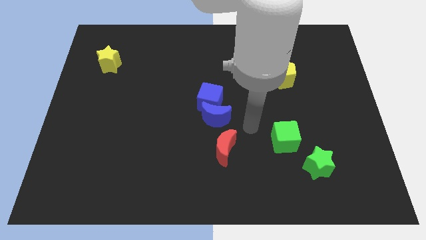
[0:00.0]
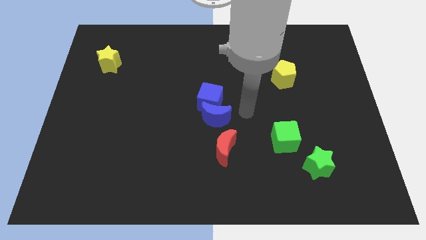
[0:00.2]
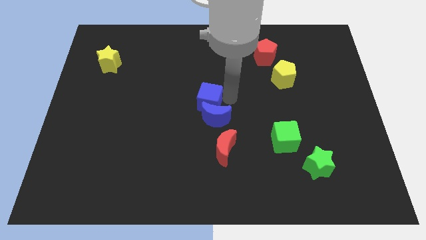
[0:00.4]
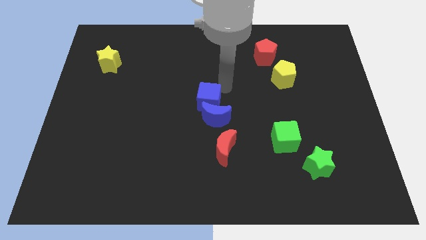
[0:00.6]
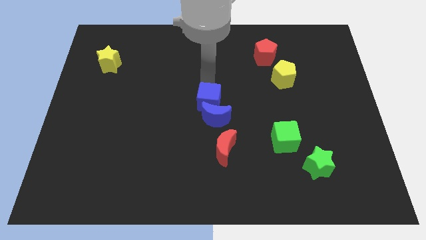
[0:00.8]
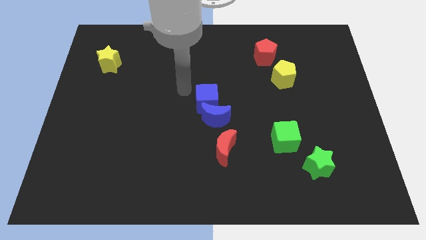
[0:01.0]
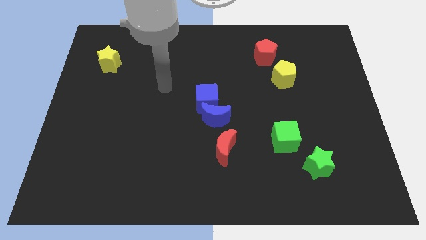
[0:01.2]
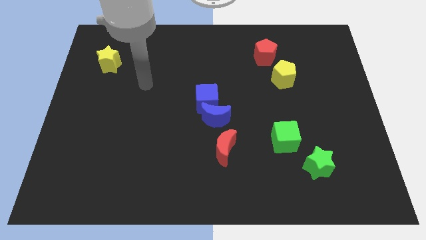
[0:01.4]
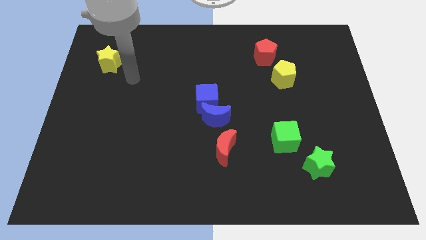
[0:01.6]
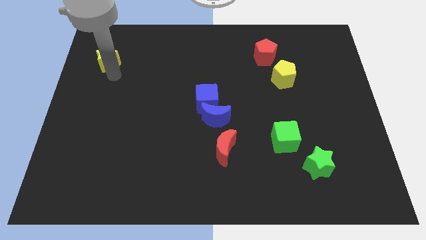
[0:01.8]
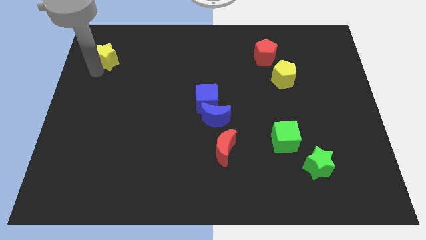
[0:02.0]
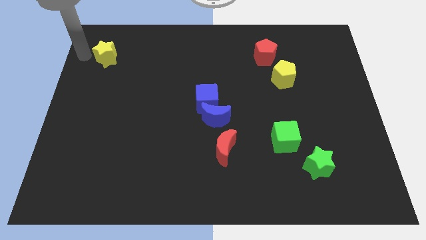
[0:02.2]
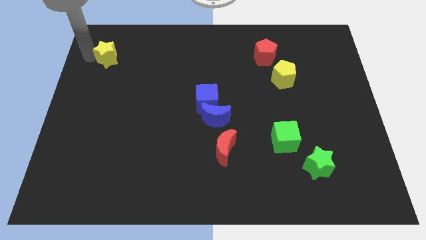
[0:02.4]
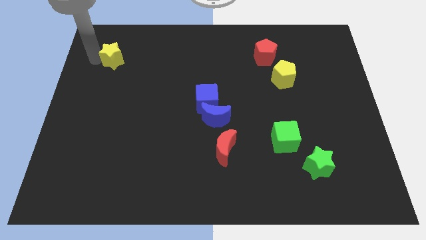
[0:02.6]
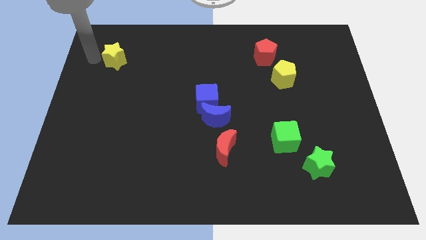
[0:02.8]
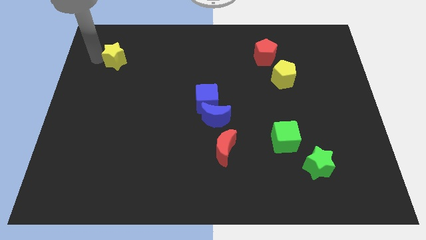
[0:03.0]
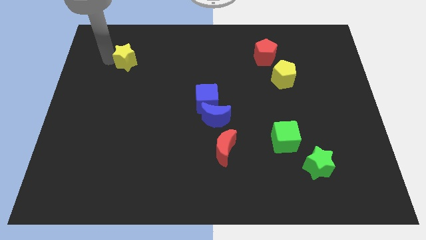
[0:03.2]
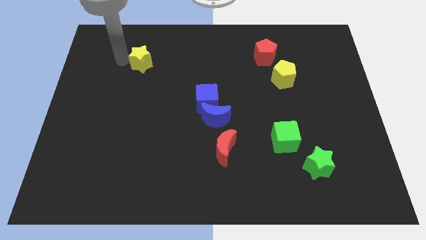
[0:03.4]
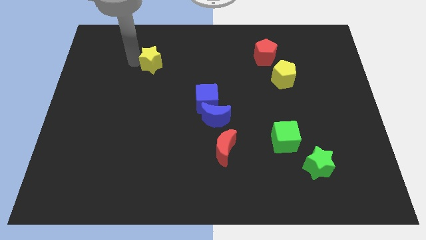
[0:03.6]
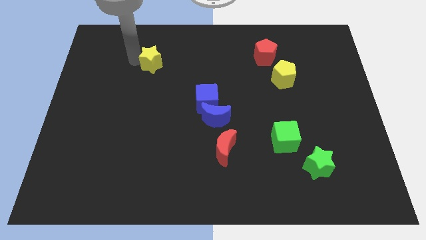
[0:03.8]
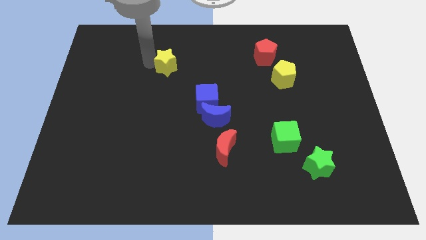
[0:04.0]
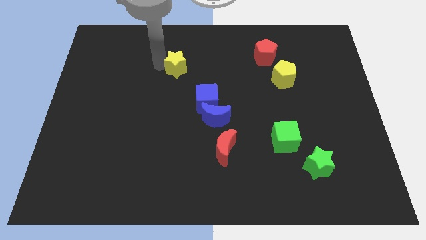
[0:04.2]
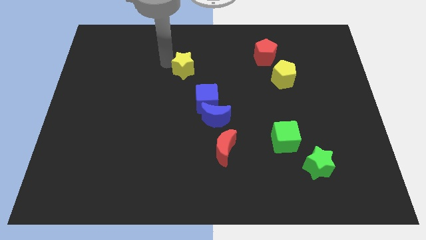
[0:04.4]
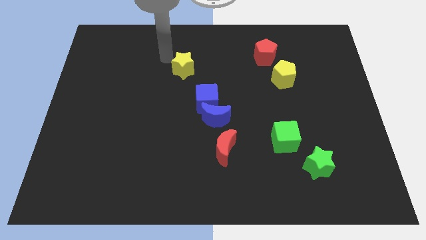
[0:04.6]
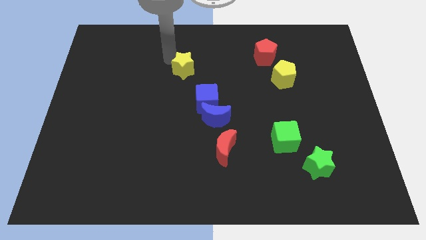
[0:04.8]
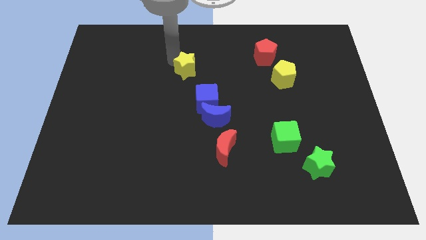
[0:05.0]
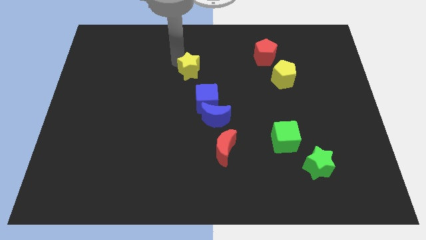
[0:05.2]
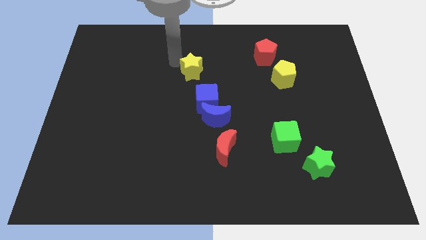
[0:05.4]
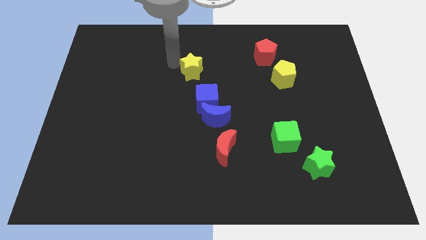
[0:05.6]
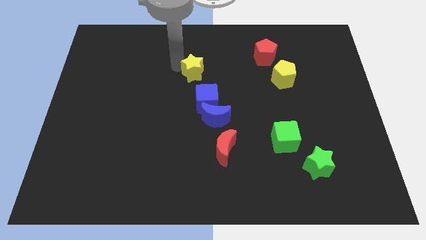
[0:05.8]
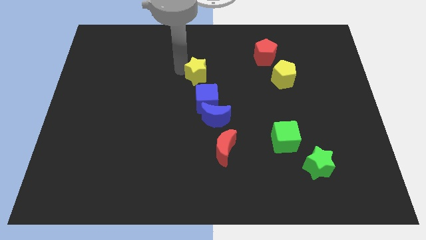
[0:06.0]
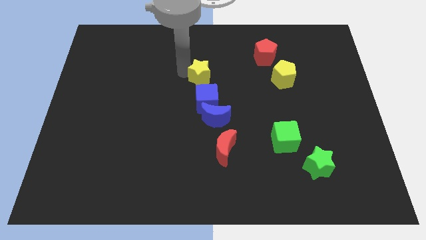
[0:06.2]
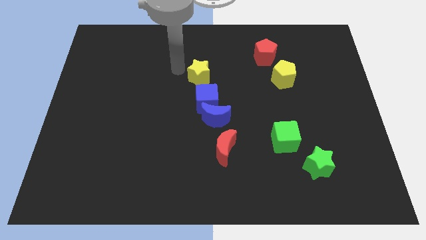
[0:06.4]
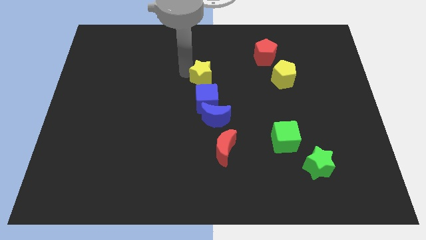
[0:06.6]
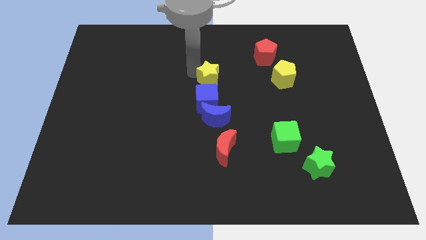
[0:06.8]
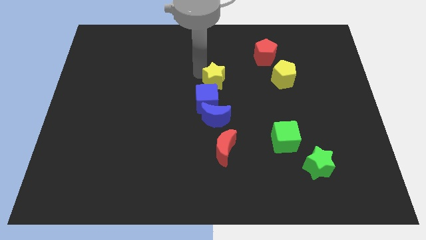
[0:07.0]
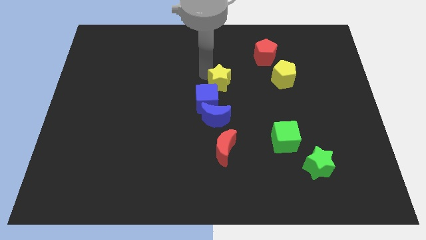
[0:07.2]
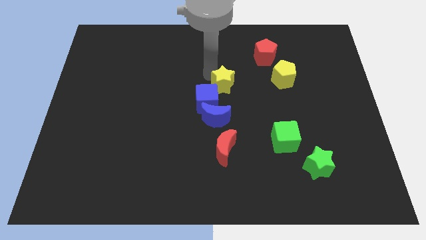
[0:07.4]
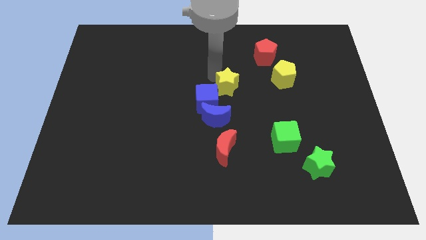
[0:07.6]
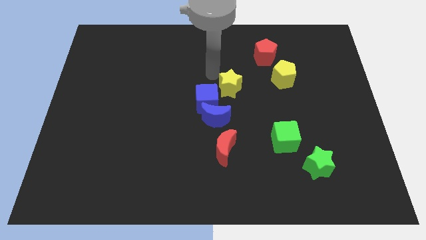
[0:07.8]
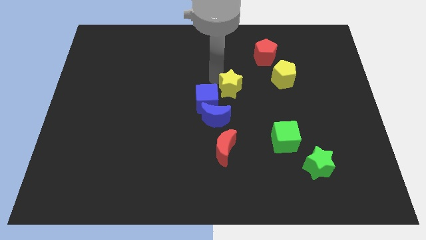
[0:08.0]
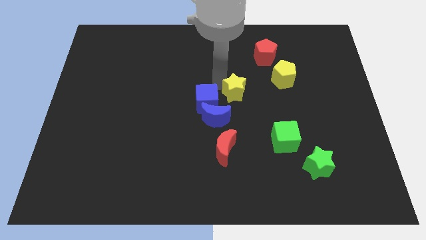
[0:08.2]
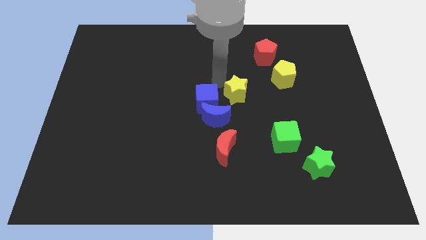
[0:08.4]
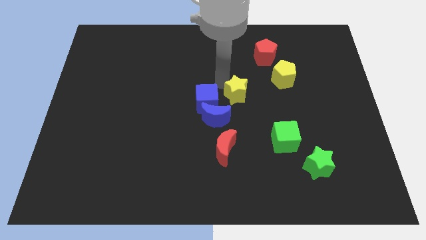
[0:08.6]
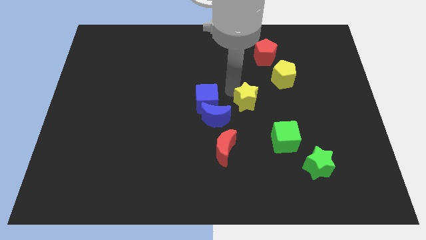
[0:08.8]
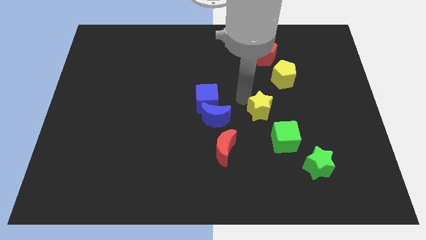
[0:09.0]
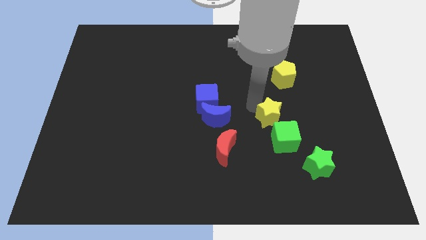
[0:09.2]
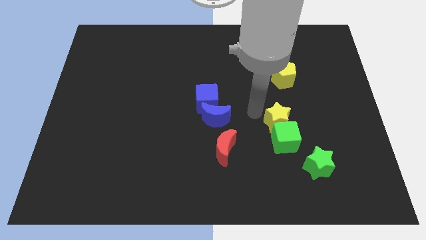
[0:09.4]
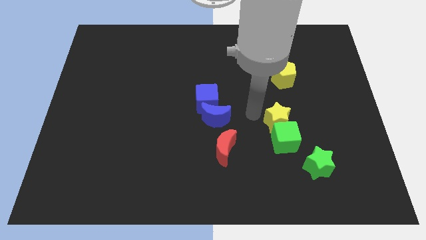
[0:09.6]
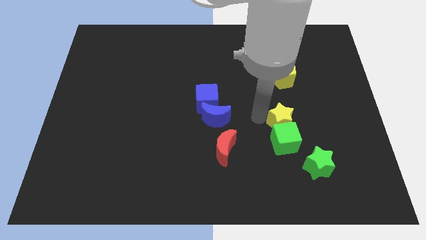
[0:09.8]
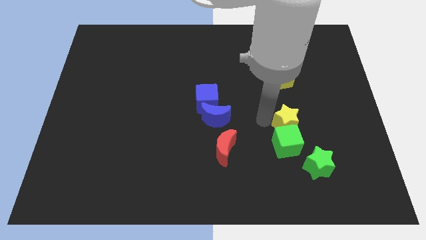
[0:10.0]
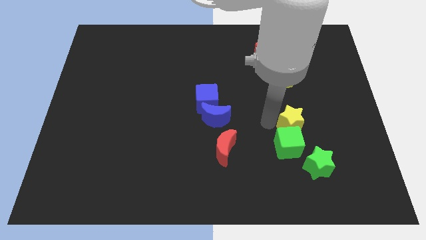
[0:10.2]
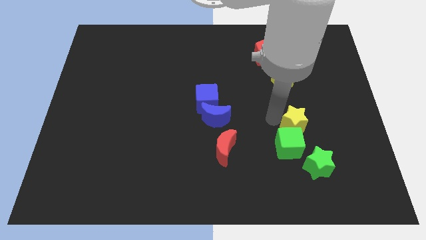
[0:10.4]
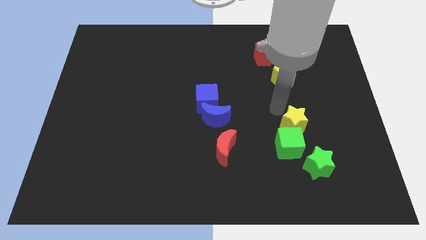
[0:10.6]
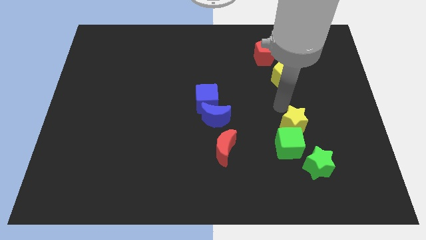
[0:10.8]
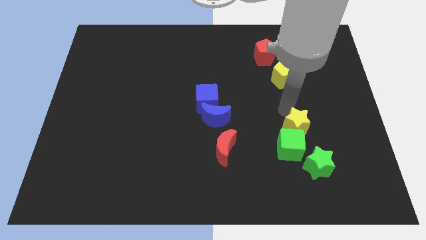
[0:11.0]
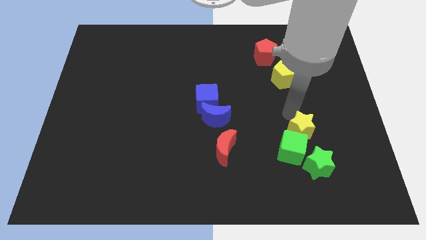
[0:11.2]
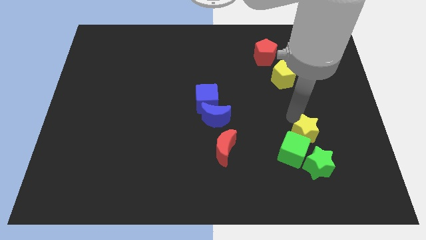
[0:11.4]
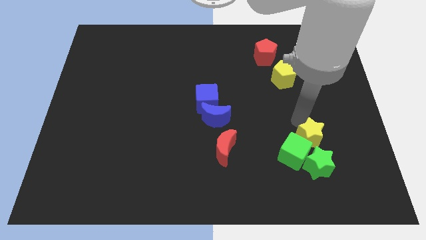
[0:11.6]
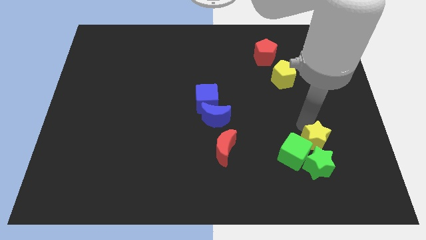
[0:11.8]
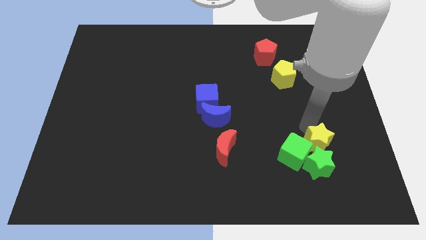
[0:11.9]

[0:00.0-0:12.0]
slide the yellow star to the green star

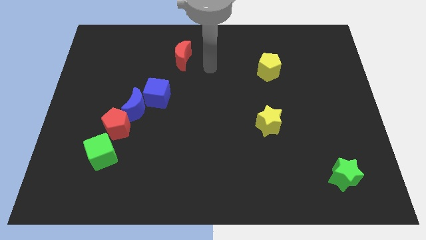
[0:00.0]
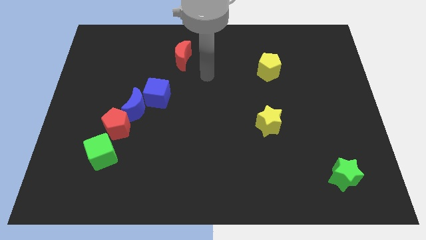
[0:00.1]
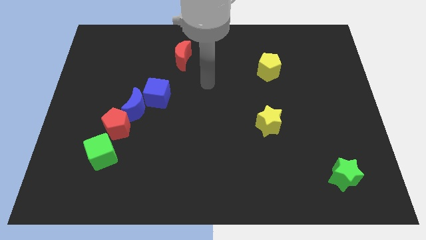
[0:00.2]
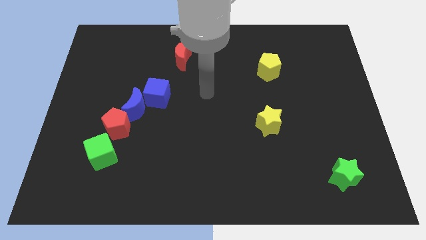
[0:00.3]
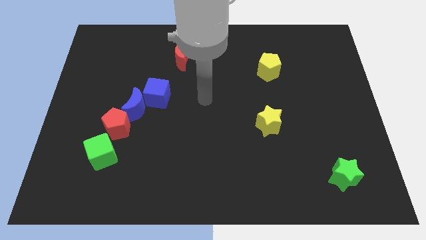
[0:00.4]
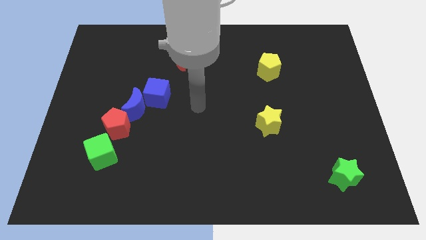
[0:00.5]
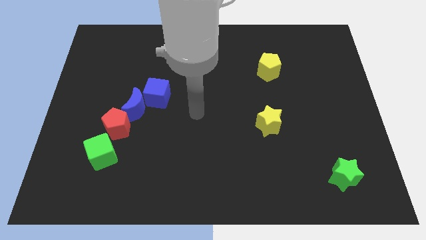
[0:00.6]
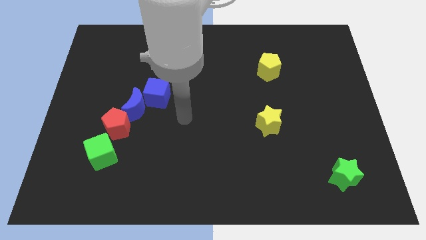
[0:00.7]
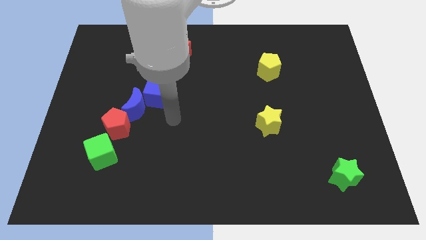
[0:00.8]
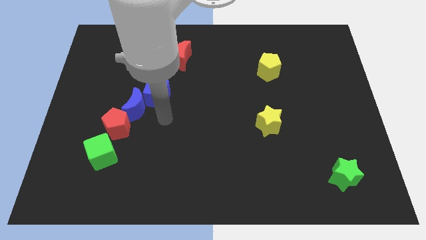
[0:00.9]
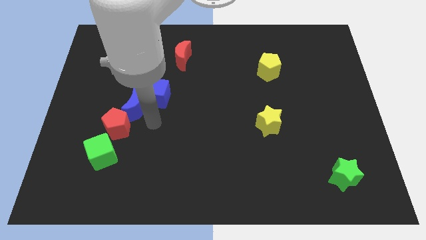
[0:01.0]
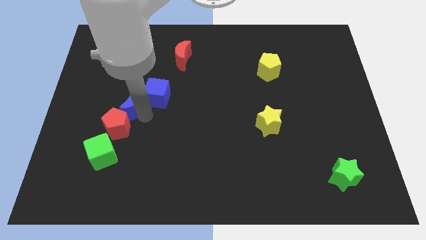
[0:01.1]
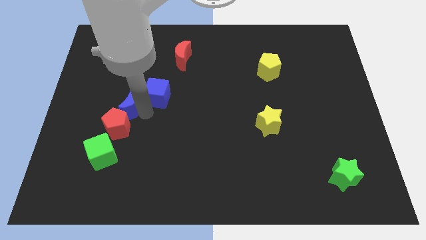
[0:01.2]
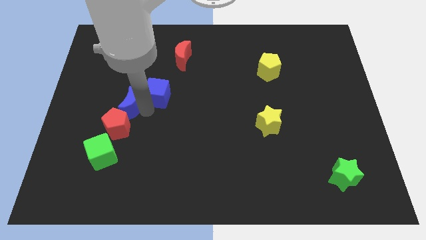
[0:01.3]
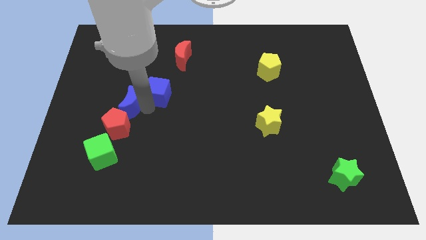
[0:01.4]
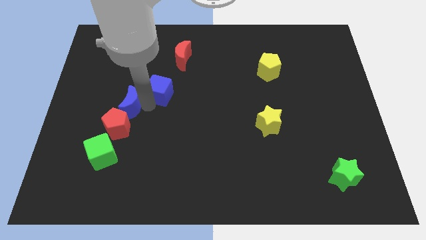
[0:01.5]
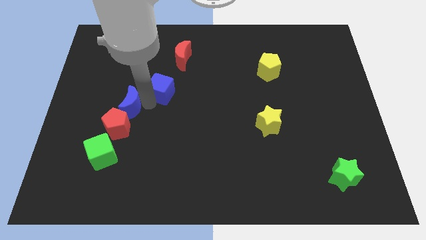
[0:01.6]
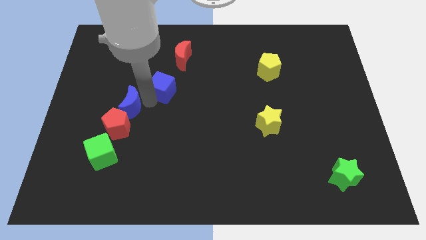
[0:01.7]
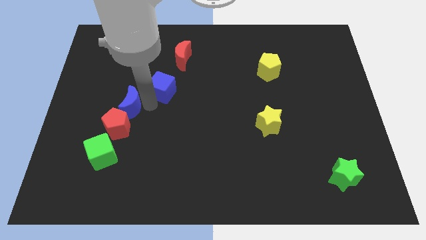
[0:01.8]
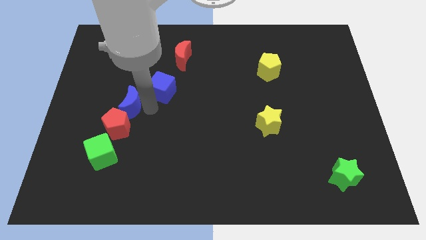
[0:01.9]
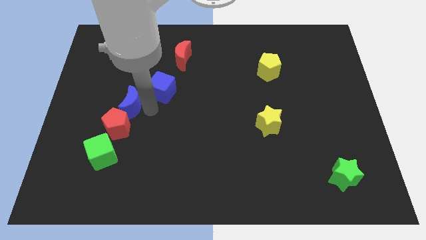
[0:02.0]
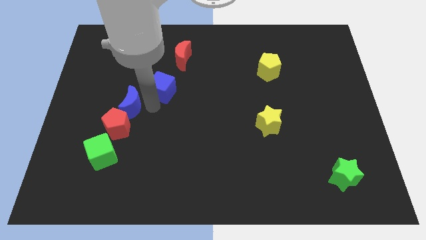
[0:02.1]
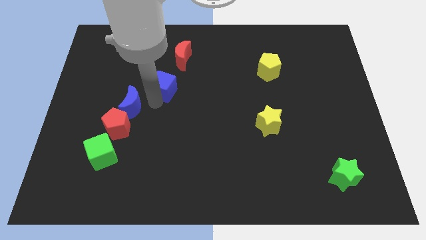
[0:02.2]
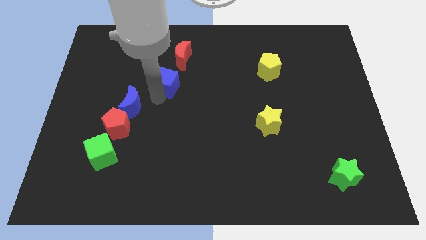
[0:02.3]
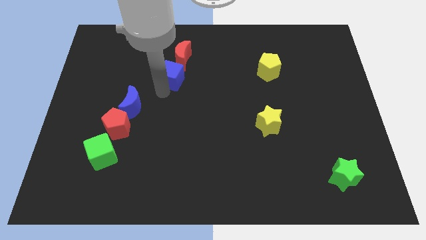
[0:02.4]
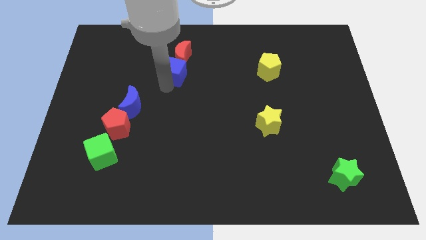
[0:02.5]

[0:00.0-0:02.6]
push the blue cube to the red moon
